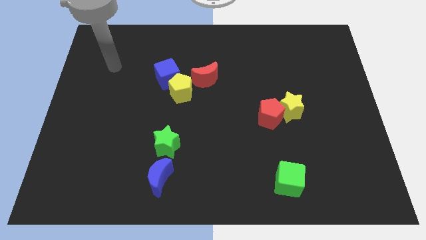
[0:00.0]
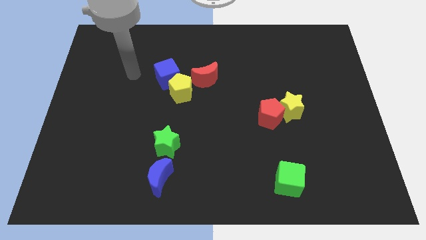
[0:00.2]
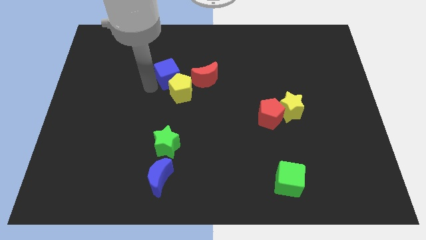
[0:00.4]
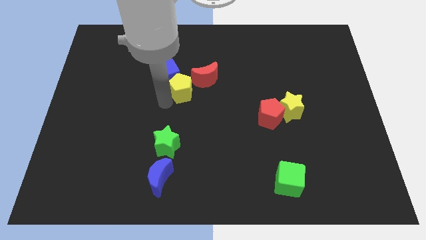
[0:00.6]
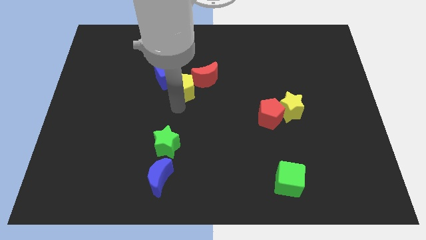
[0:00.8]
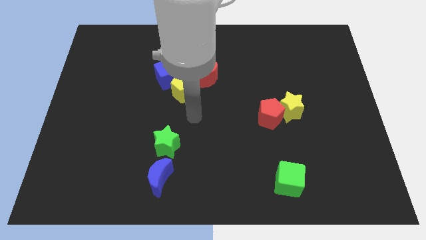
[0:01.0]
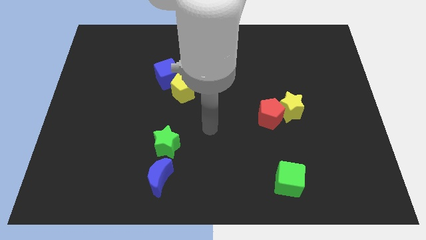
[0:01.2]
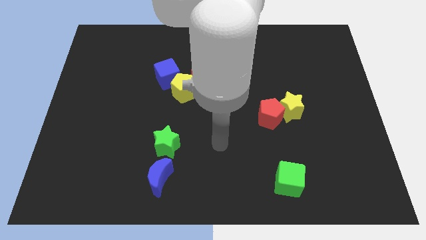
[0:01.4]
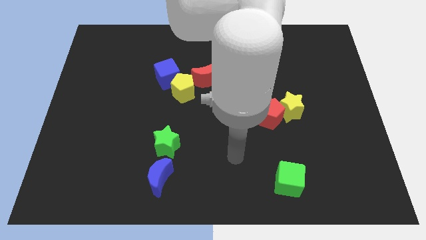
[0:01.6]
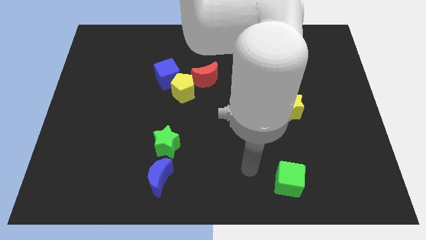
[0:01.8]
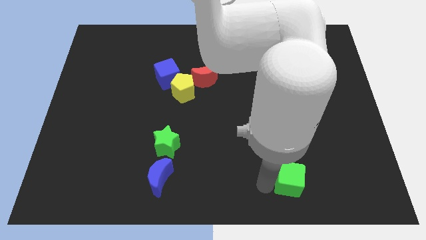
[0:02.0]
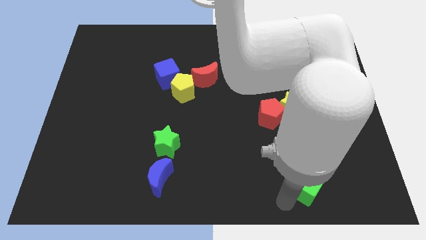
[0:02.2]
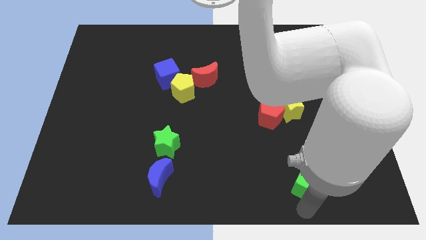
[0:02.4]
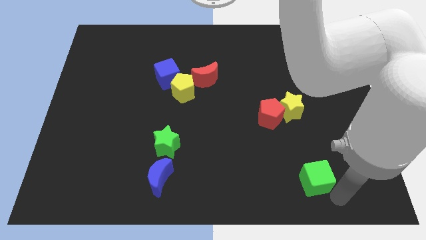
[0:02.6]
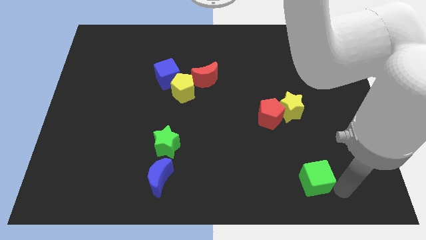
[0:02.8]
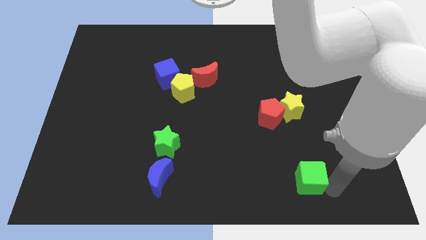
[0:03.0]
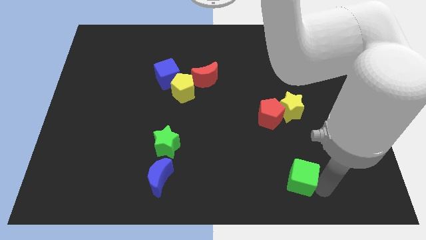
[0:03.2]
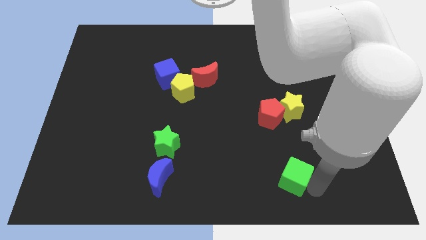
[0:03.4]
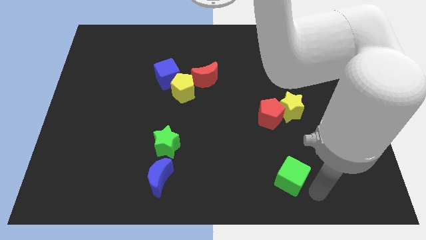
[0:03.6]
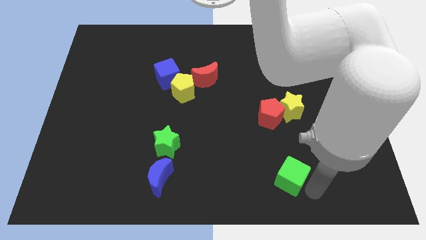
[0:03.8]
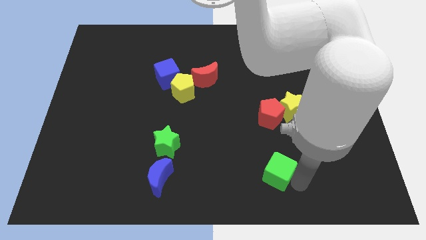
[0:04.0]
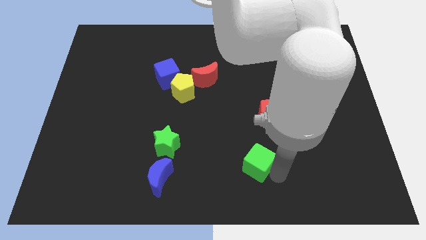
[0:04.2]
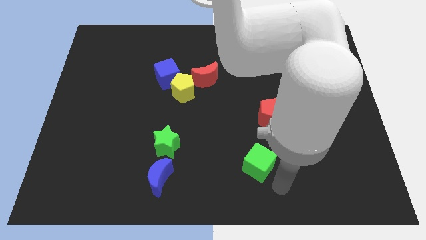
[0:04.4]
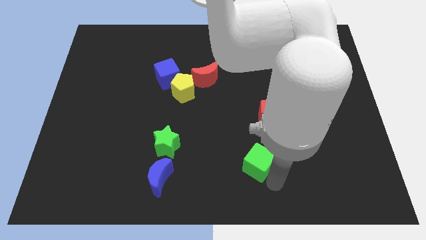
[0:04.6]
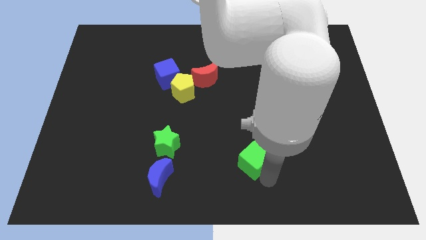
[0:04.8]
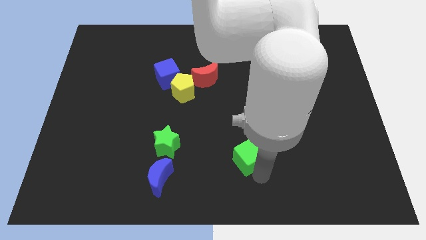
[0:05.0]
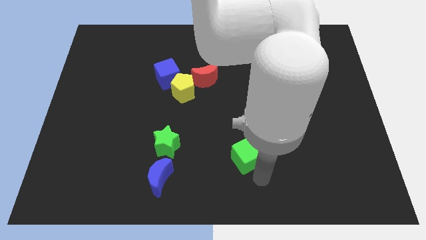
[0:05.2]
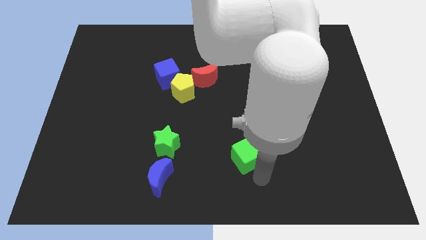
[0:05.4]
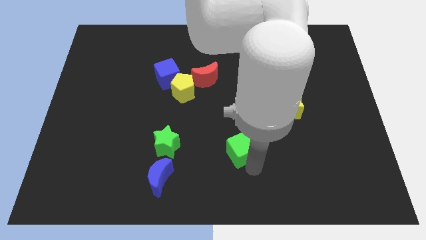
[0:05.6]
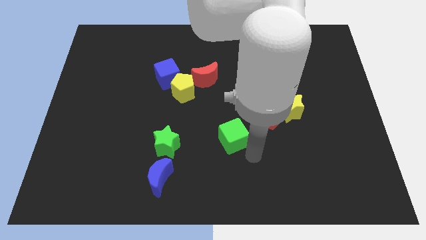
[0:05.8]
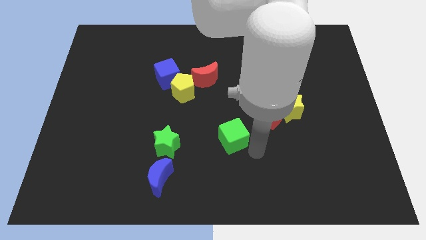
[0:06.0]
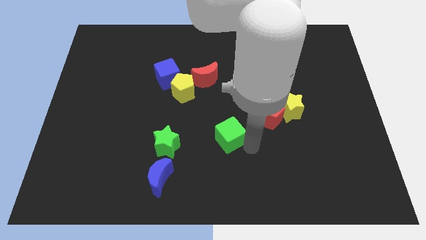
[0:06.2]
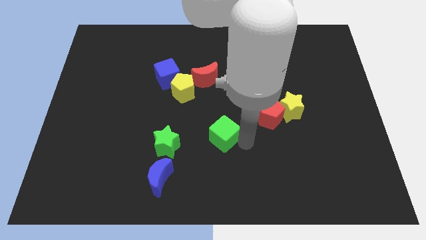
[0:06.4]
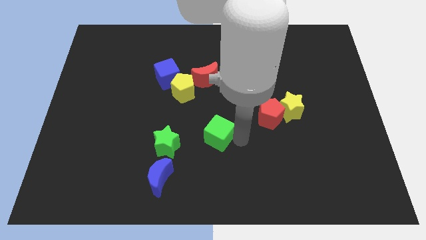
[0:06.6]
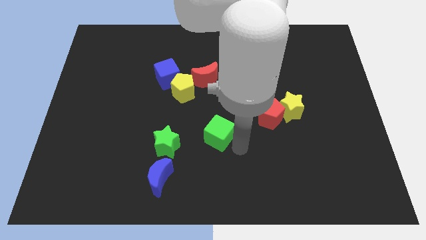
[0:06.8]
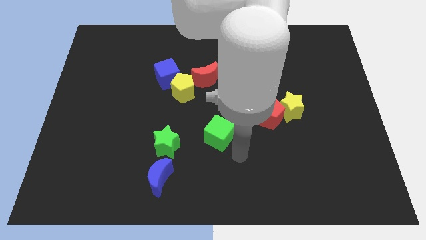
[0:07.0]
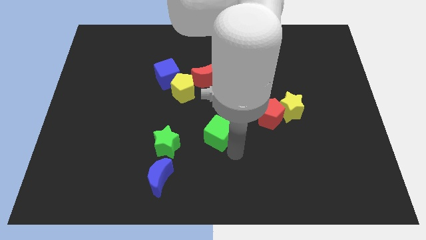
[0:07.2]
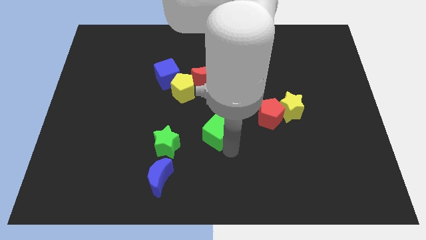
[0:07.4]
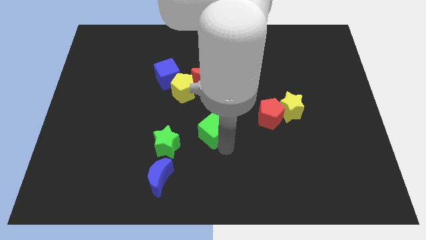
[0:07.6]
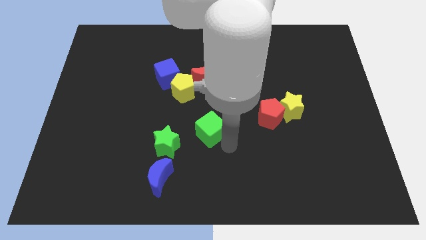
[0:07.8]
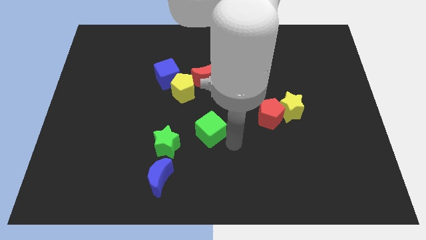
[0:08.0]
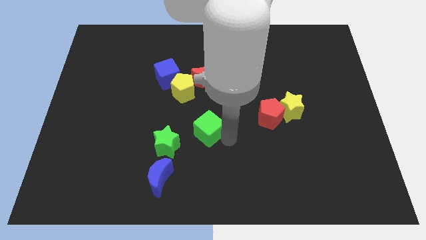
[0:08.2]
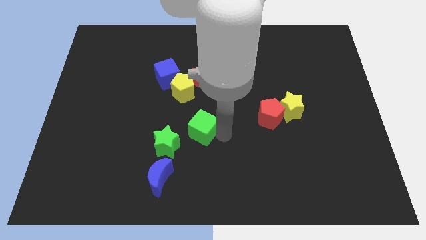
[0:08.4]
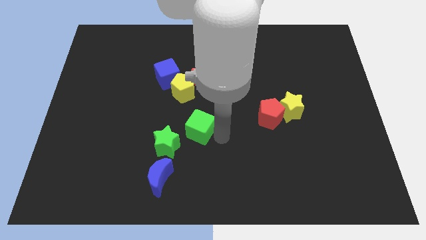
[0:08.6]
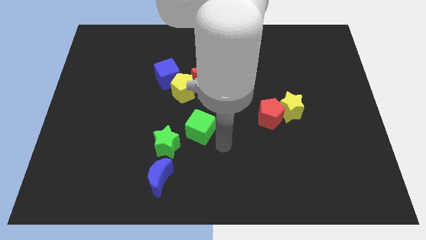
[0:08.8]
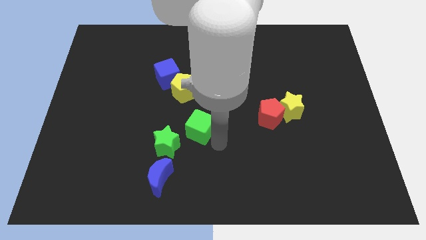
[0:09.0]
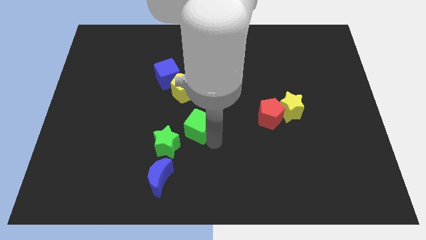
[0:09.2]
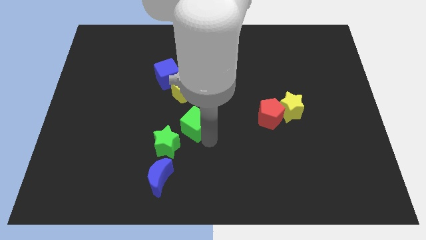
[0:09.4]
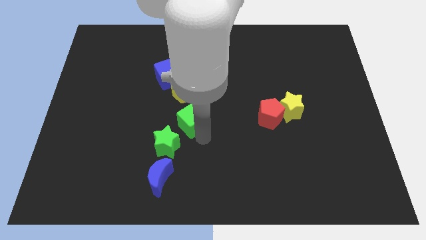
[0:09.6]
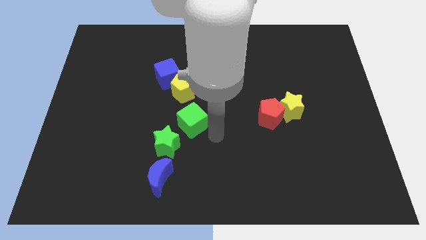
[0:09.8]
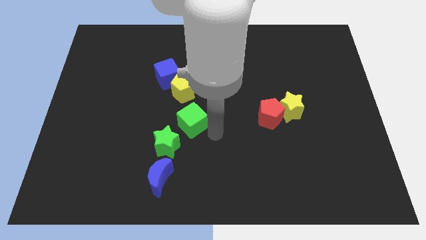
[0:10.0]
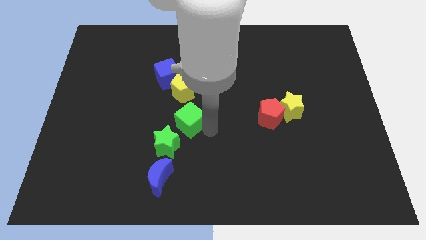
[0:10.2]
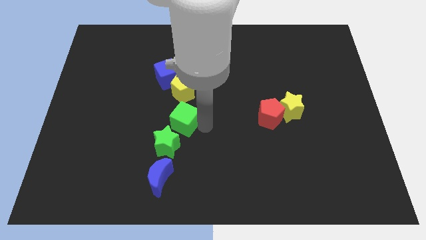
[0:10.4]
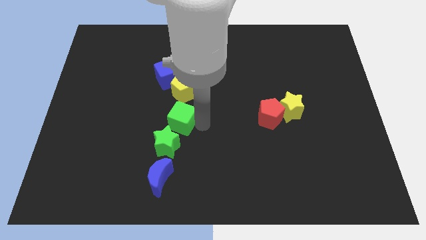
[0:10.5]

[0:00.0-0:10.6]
push the green cube below the blue cube

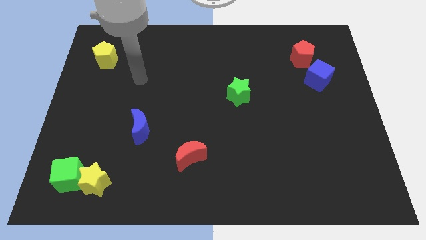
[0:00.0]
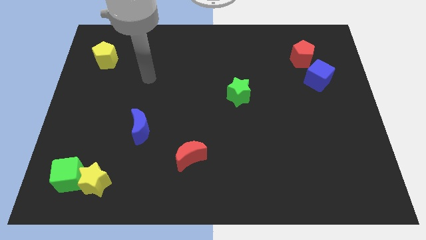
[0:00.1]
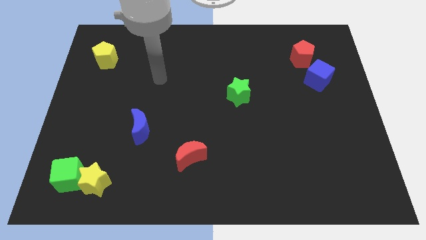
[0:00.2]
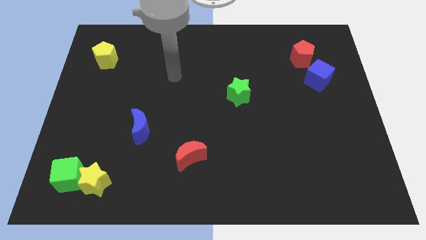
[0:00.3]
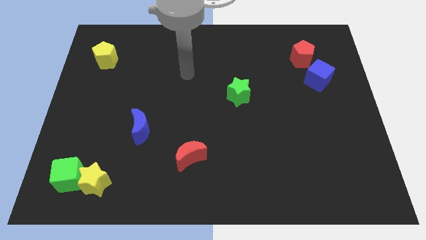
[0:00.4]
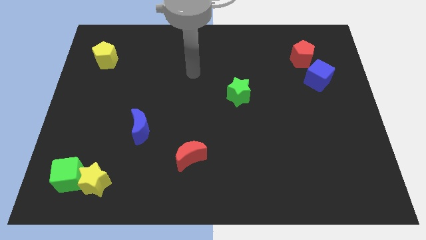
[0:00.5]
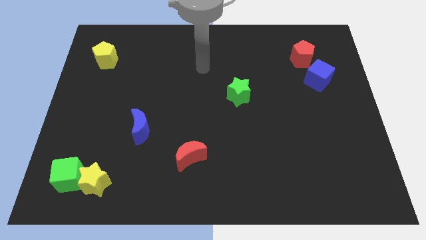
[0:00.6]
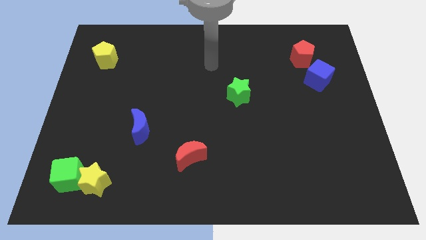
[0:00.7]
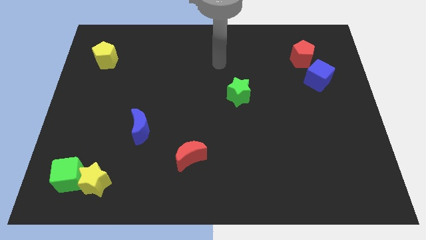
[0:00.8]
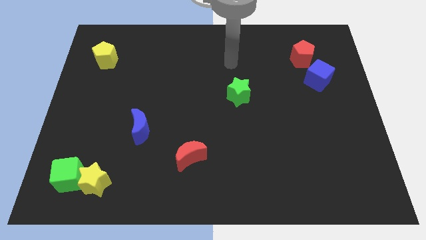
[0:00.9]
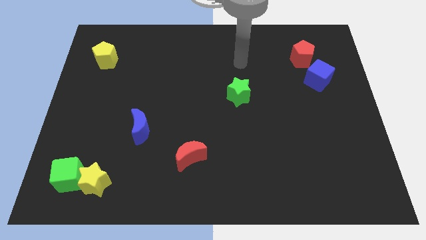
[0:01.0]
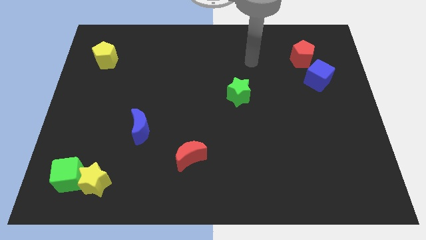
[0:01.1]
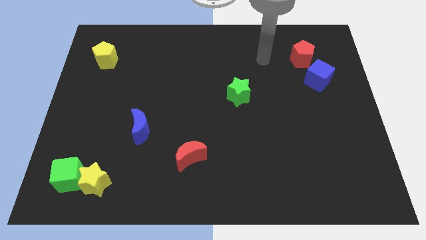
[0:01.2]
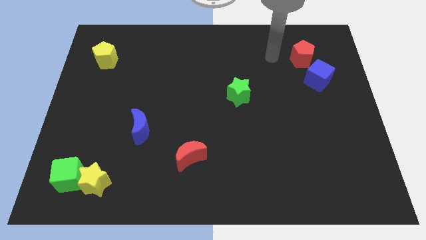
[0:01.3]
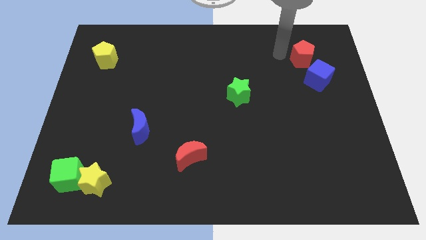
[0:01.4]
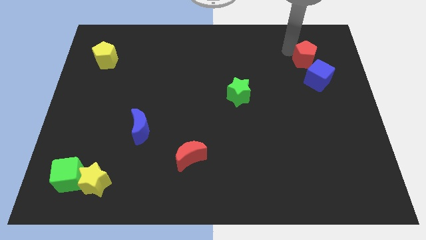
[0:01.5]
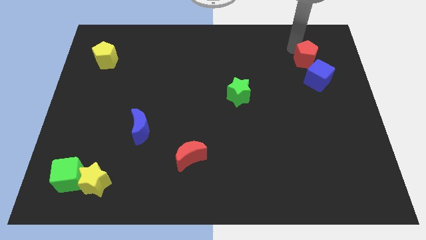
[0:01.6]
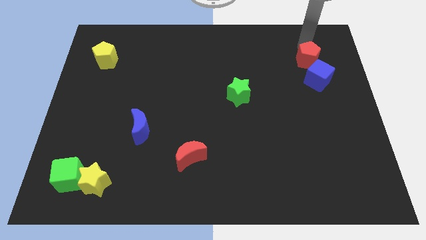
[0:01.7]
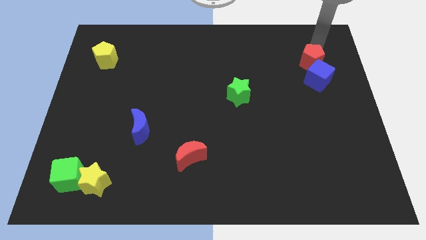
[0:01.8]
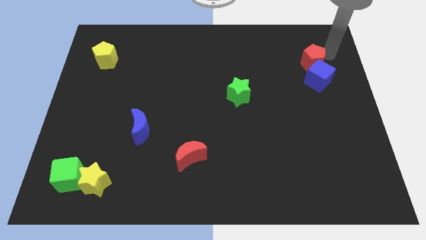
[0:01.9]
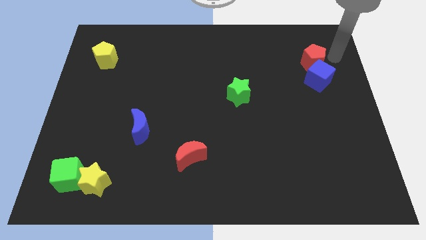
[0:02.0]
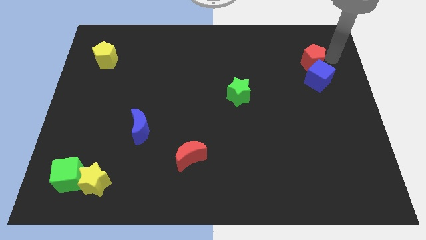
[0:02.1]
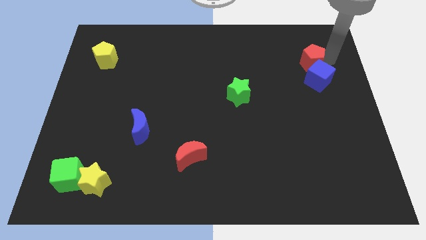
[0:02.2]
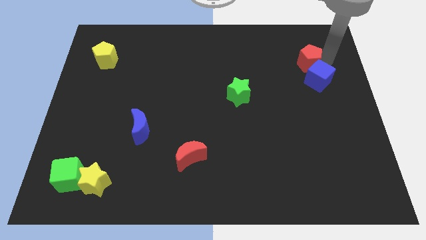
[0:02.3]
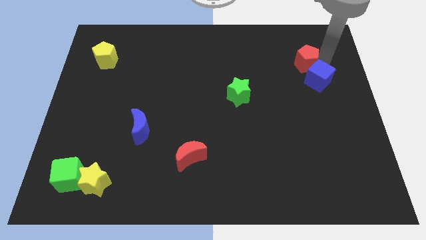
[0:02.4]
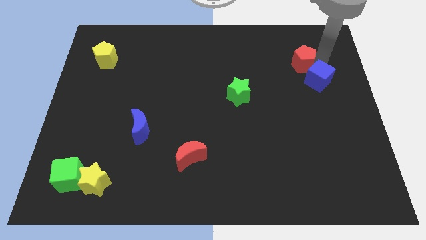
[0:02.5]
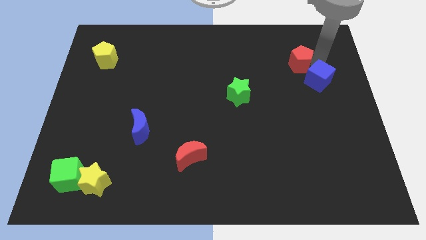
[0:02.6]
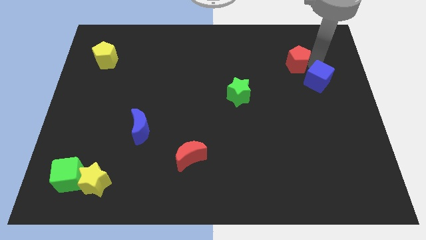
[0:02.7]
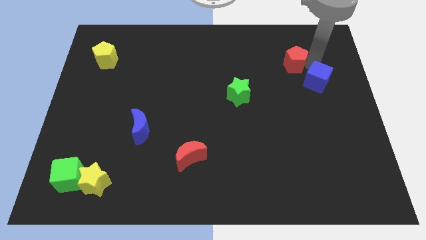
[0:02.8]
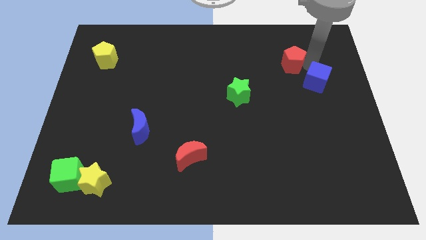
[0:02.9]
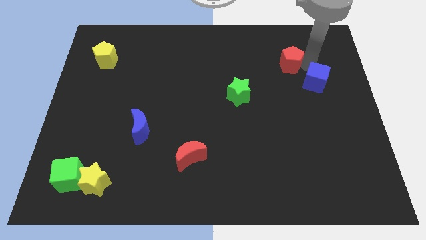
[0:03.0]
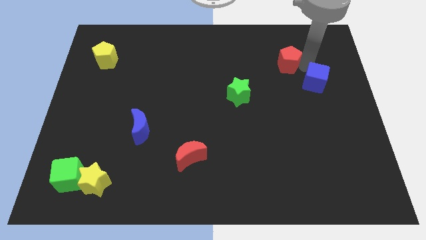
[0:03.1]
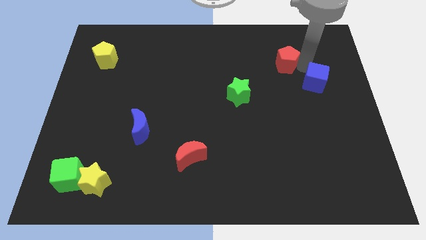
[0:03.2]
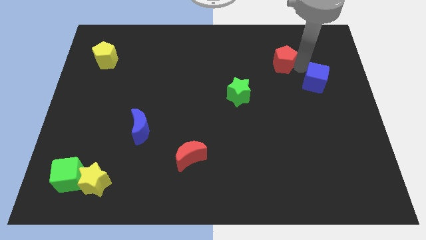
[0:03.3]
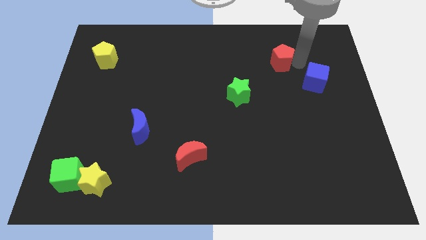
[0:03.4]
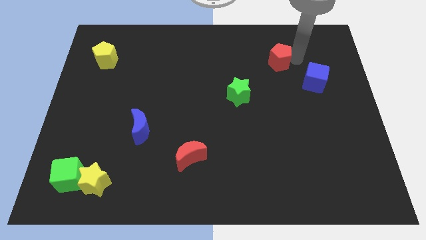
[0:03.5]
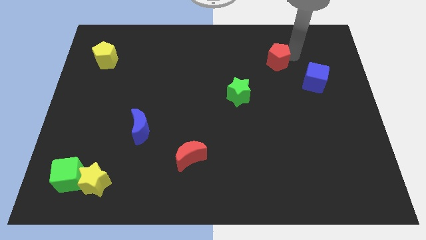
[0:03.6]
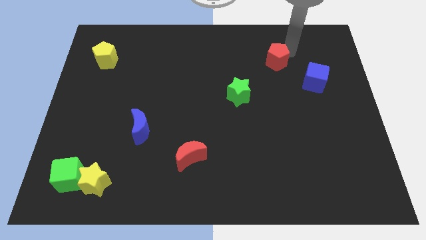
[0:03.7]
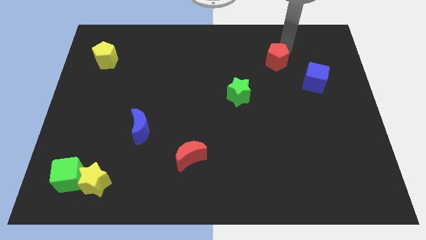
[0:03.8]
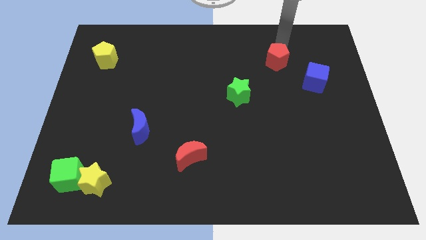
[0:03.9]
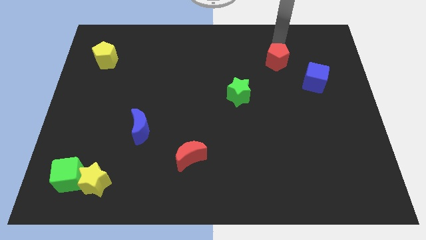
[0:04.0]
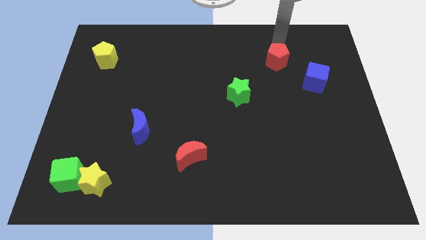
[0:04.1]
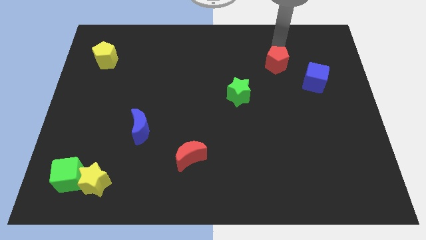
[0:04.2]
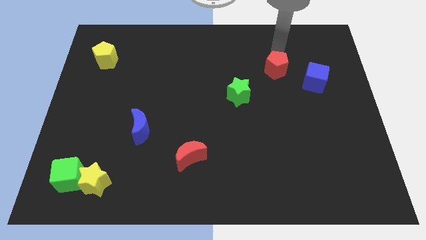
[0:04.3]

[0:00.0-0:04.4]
push the red pentagon just left of the blue cube
